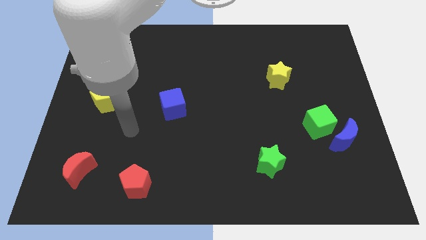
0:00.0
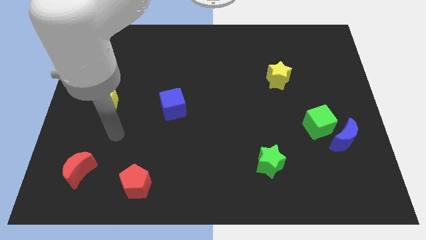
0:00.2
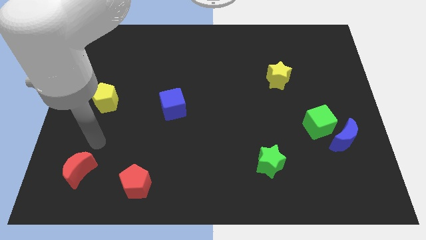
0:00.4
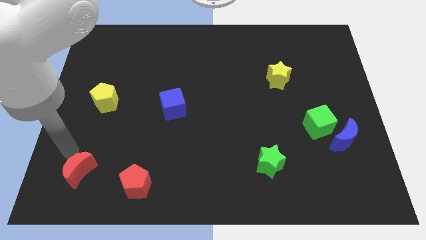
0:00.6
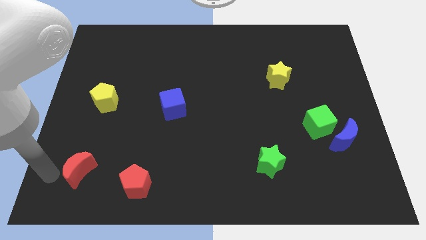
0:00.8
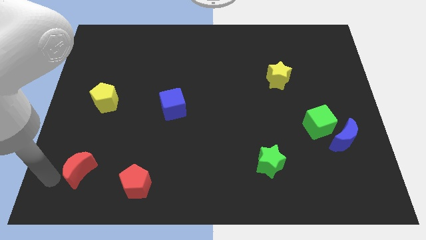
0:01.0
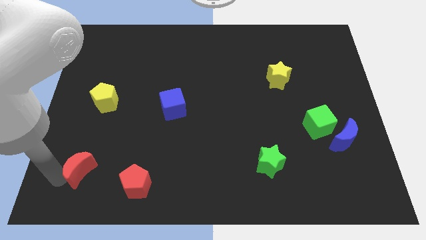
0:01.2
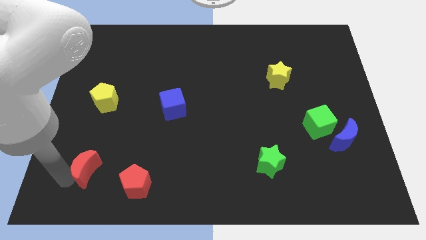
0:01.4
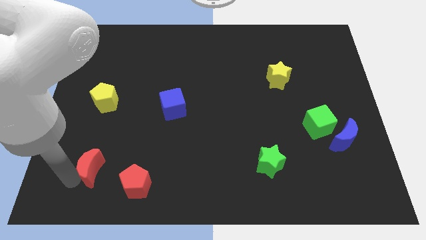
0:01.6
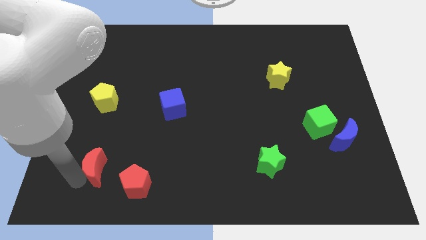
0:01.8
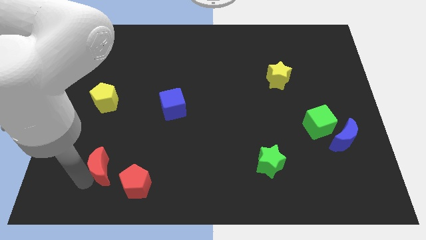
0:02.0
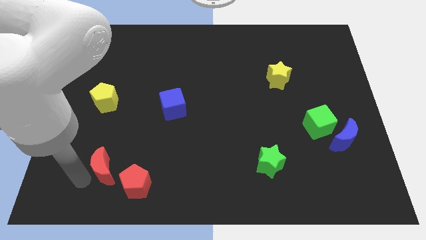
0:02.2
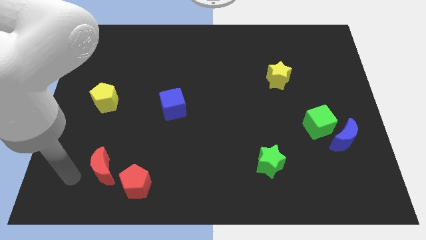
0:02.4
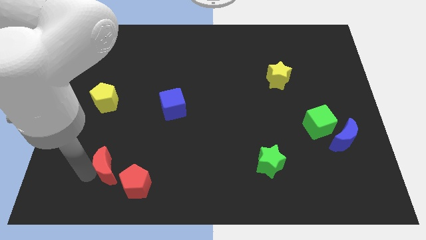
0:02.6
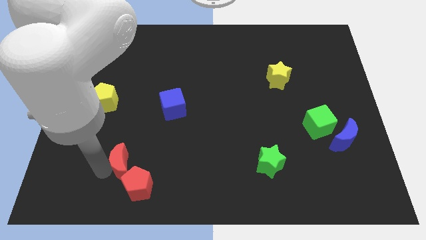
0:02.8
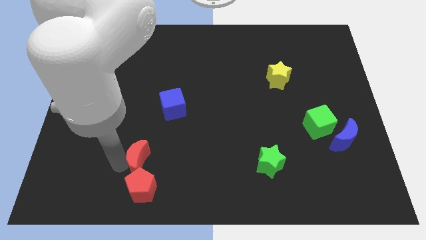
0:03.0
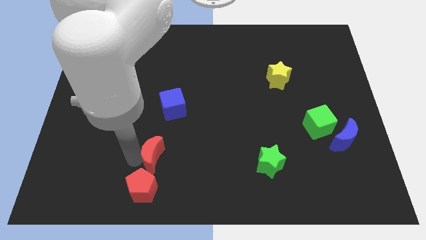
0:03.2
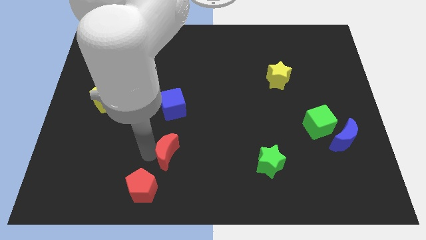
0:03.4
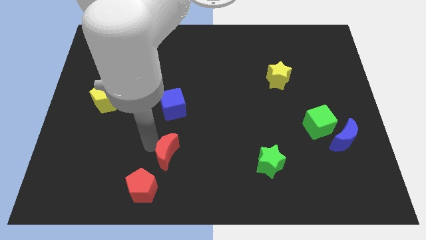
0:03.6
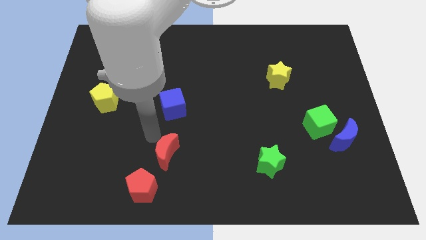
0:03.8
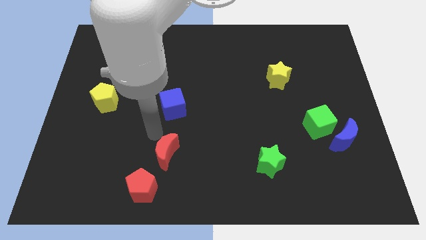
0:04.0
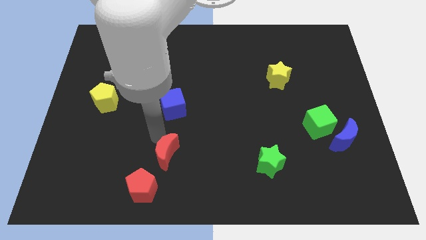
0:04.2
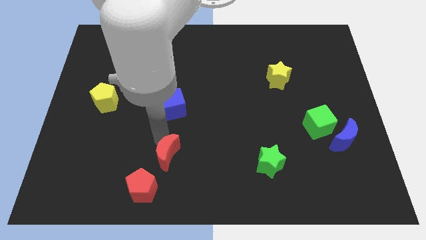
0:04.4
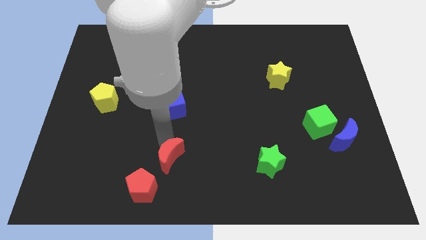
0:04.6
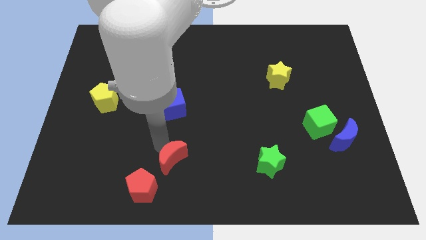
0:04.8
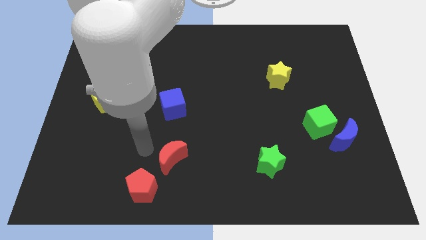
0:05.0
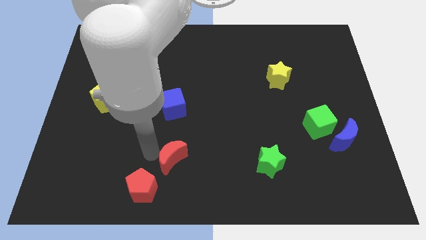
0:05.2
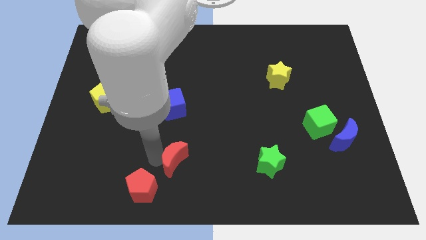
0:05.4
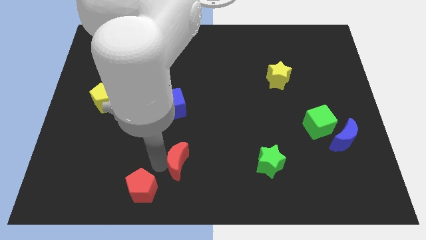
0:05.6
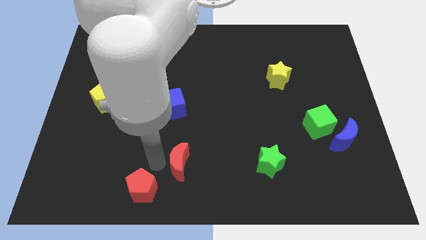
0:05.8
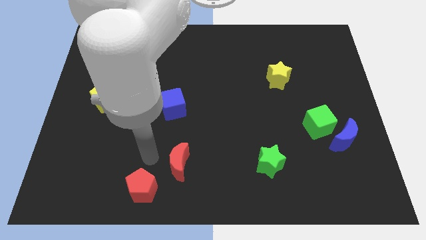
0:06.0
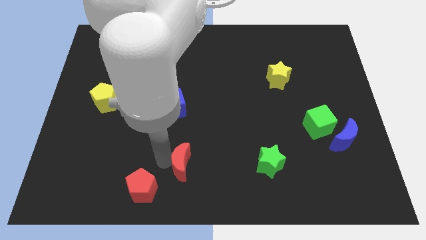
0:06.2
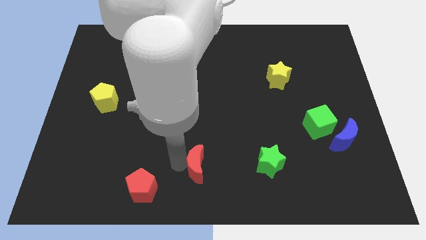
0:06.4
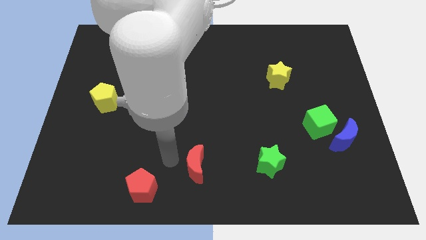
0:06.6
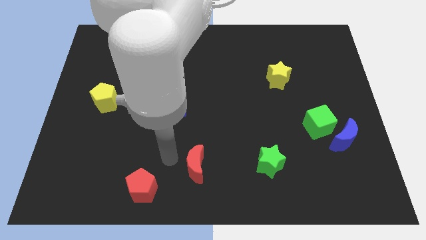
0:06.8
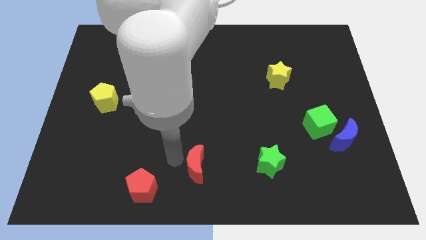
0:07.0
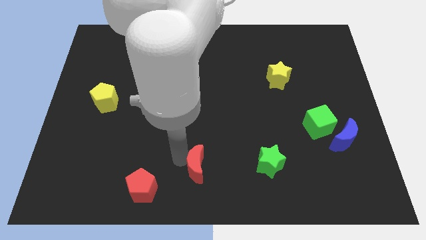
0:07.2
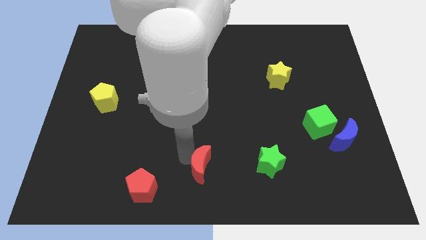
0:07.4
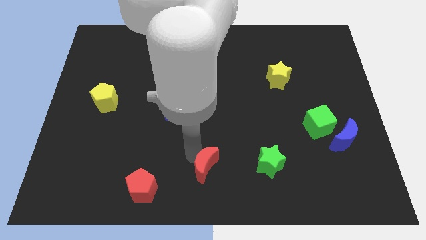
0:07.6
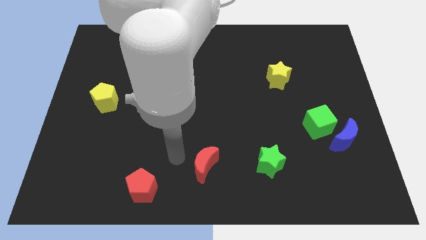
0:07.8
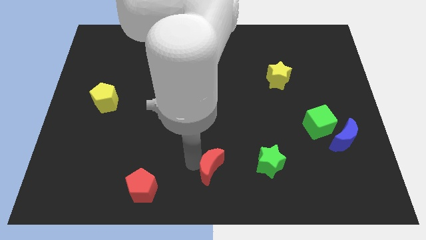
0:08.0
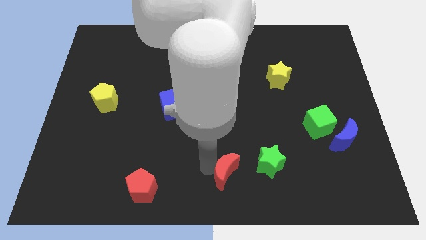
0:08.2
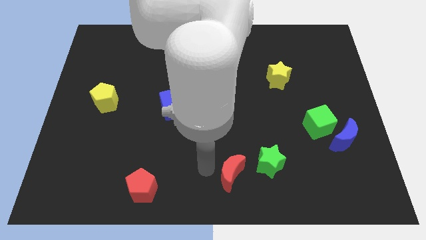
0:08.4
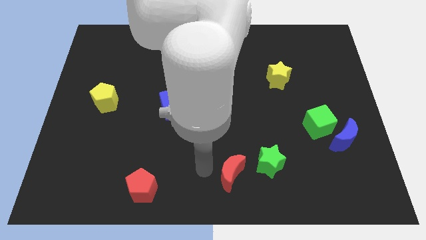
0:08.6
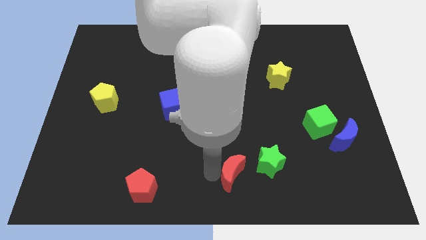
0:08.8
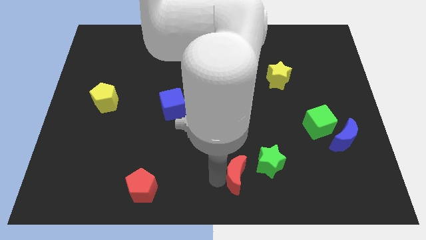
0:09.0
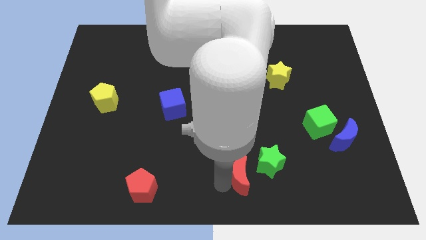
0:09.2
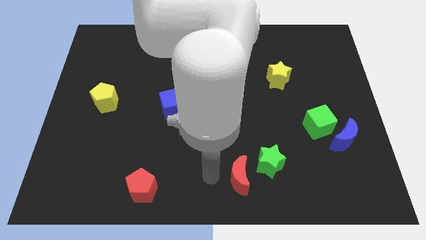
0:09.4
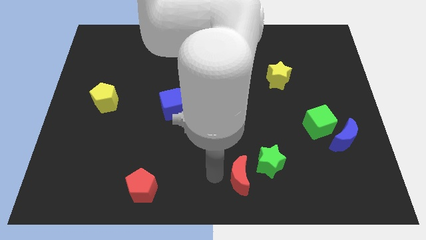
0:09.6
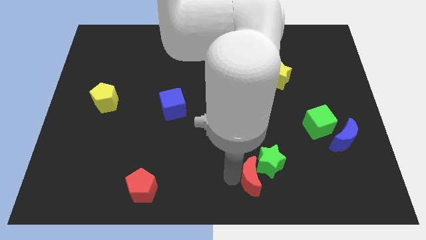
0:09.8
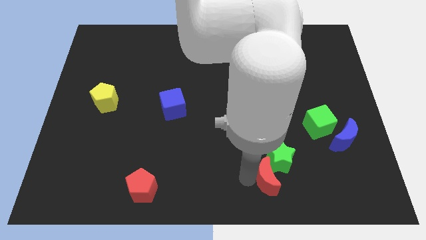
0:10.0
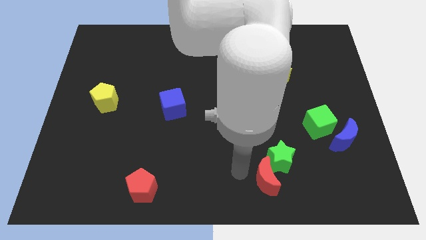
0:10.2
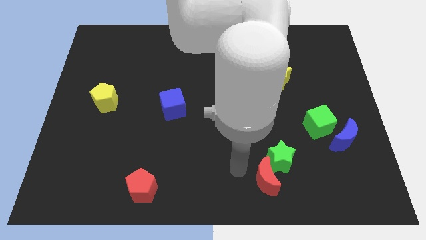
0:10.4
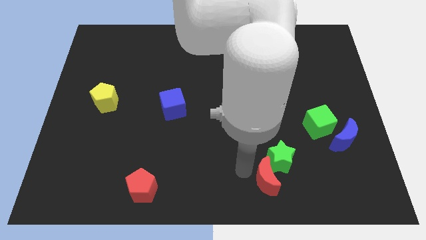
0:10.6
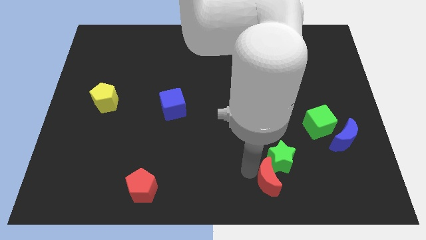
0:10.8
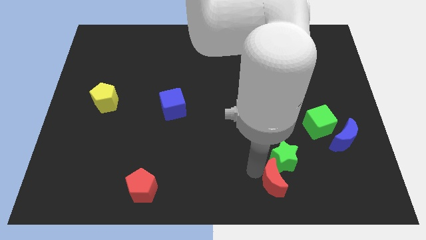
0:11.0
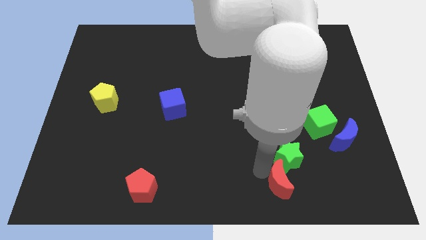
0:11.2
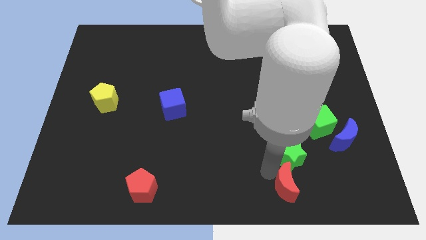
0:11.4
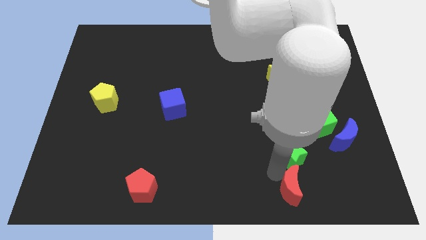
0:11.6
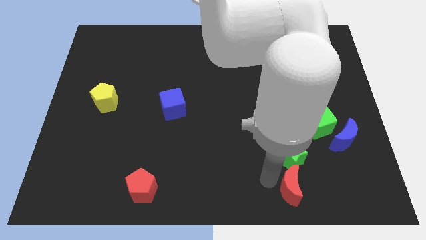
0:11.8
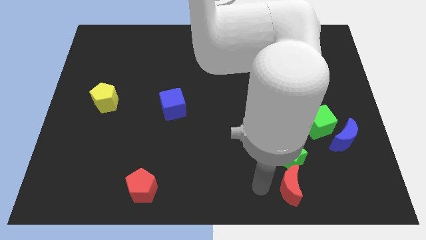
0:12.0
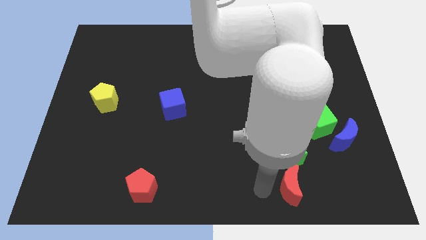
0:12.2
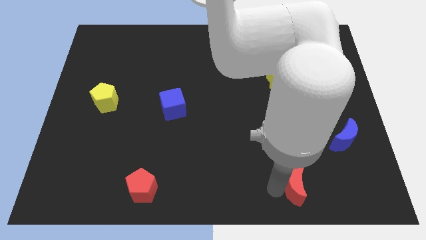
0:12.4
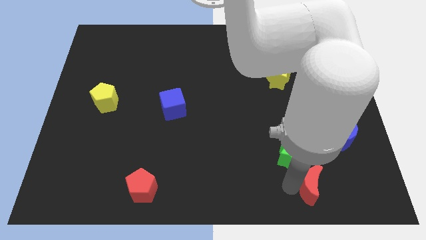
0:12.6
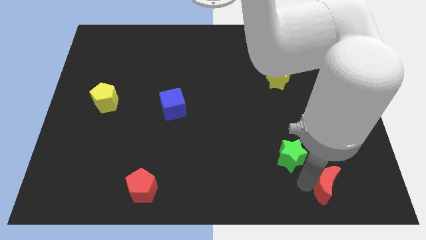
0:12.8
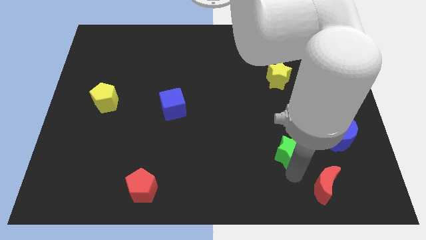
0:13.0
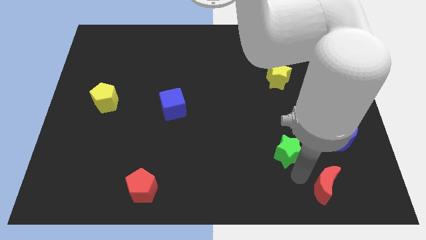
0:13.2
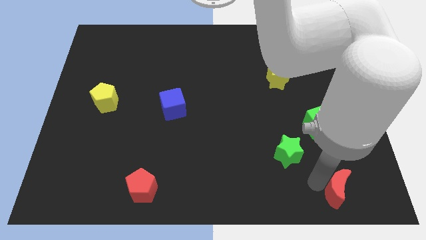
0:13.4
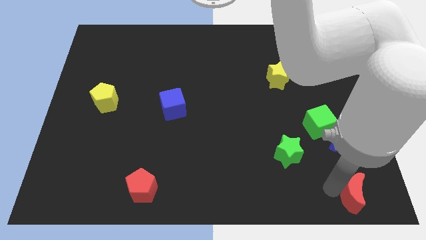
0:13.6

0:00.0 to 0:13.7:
slide the red moon to the bottom right of the board
